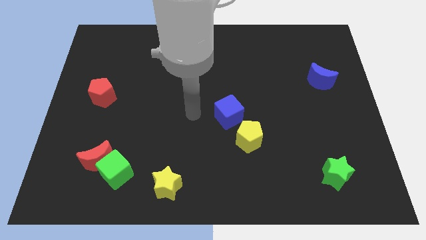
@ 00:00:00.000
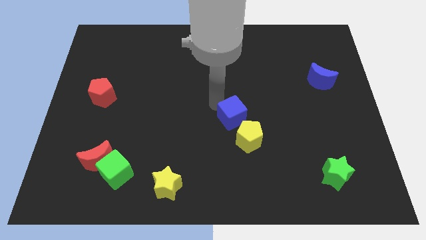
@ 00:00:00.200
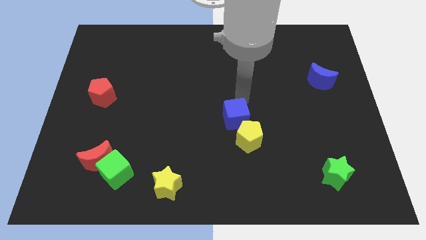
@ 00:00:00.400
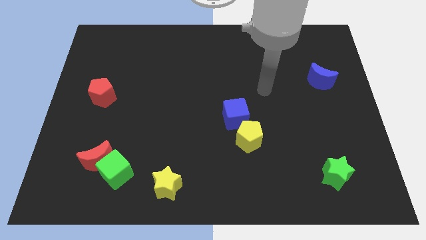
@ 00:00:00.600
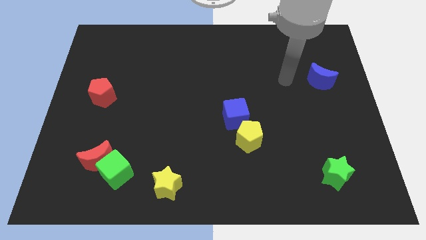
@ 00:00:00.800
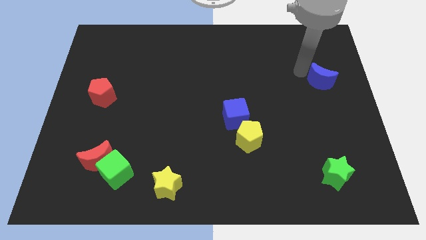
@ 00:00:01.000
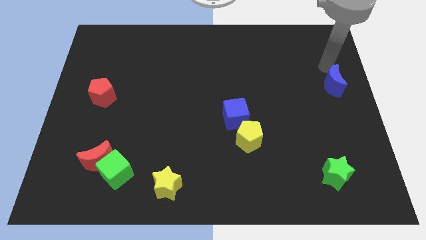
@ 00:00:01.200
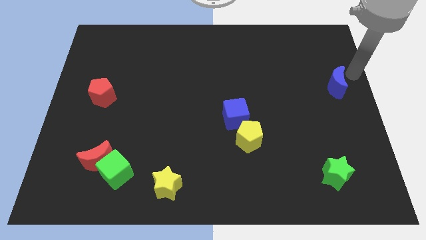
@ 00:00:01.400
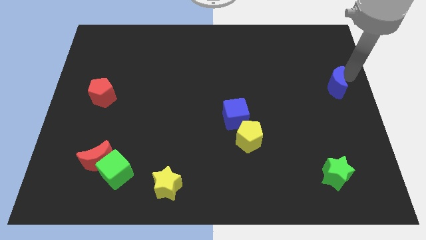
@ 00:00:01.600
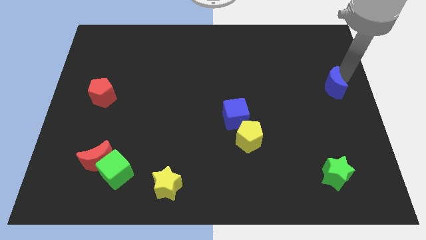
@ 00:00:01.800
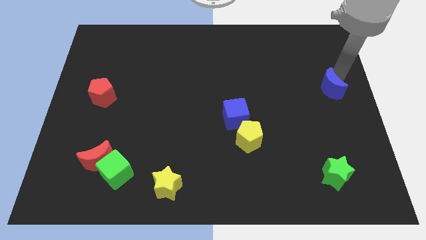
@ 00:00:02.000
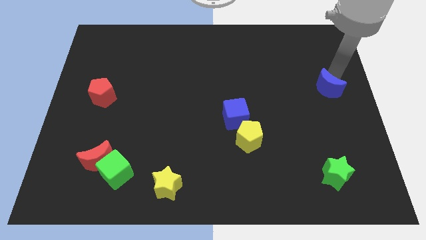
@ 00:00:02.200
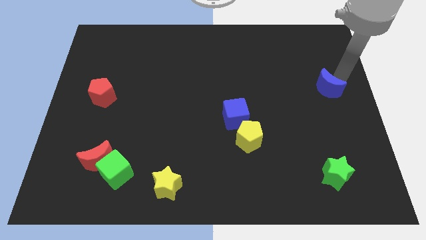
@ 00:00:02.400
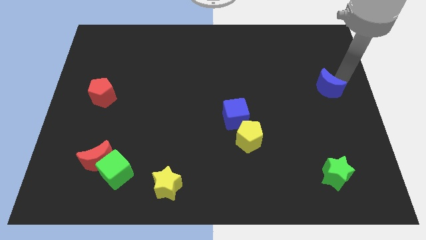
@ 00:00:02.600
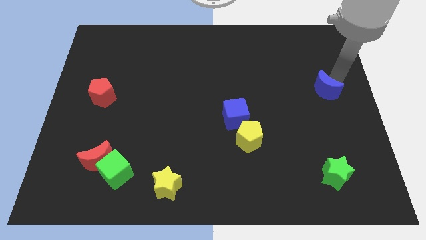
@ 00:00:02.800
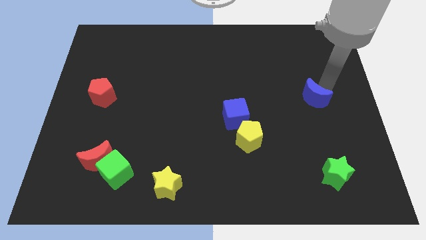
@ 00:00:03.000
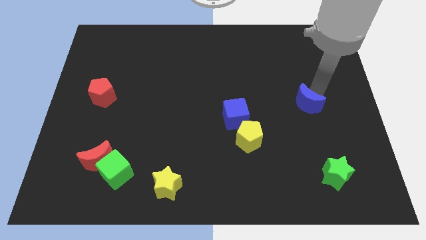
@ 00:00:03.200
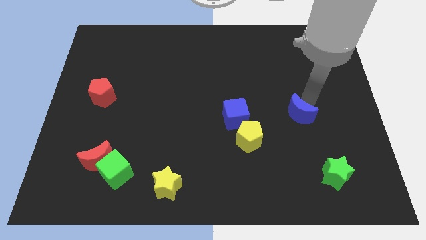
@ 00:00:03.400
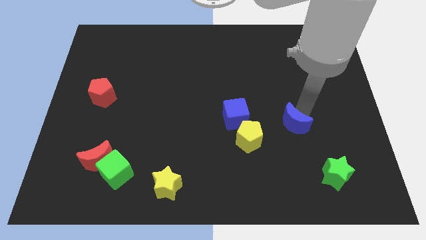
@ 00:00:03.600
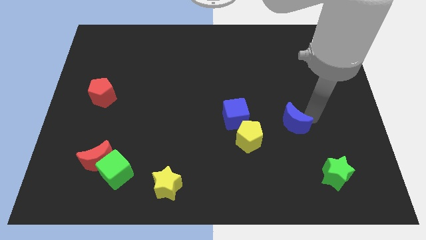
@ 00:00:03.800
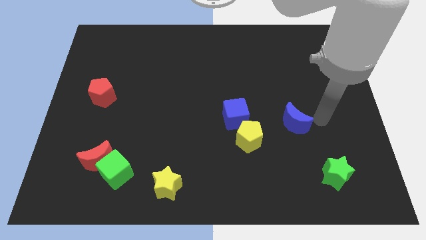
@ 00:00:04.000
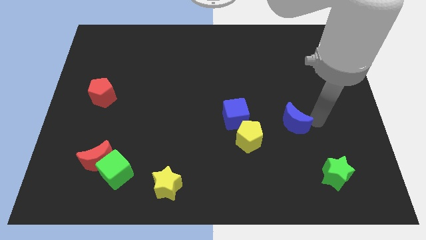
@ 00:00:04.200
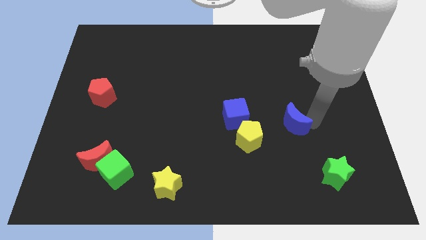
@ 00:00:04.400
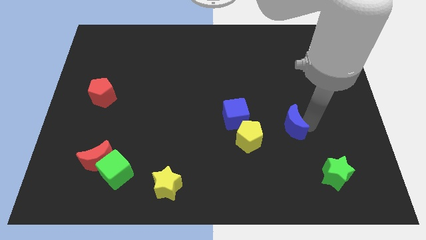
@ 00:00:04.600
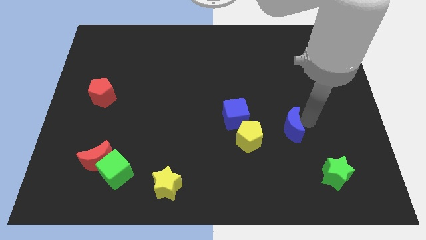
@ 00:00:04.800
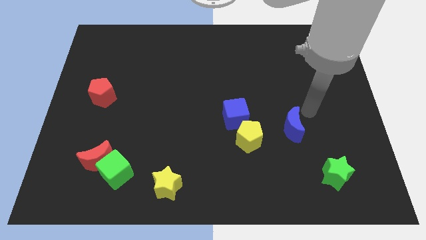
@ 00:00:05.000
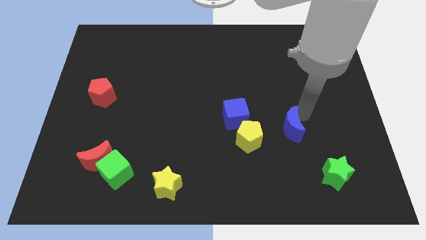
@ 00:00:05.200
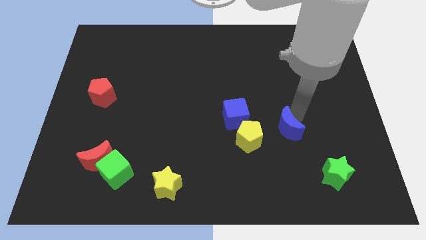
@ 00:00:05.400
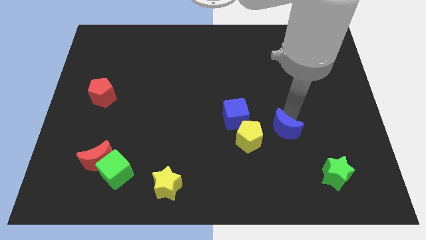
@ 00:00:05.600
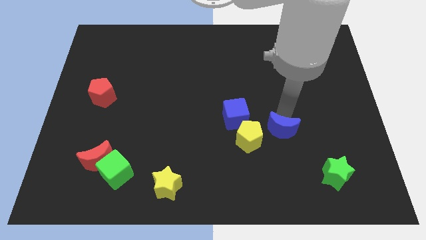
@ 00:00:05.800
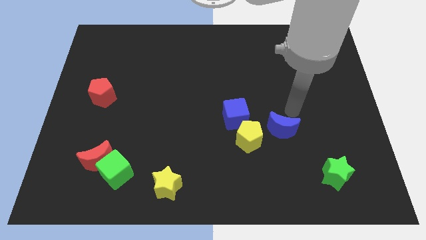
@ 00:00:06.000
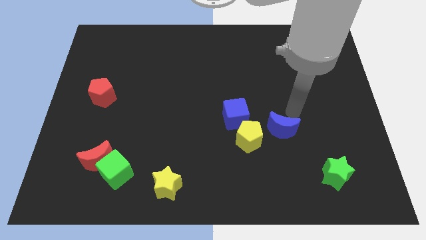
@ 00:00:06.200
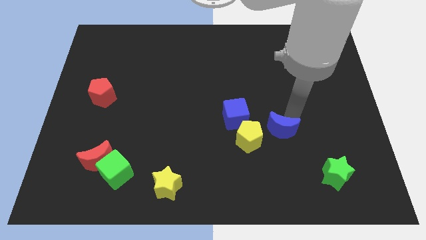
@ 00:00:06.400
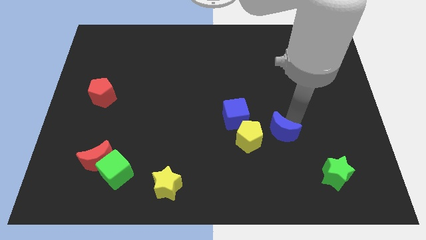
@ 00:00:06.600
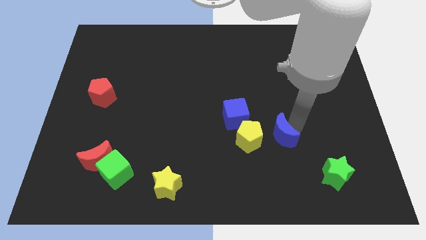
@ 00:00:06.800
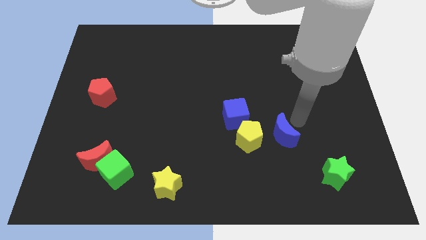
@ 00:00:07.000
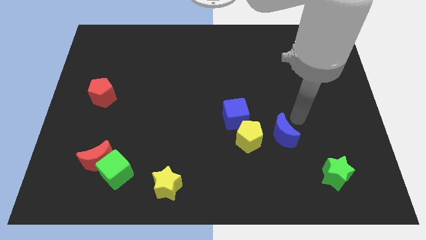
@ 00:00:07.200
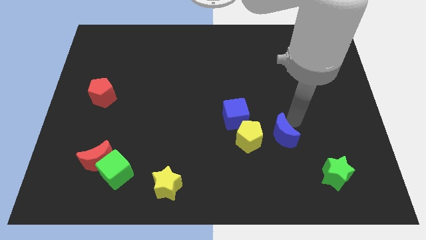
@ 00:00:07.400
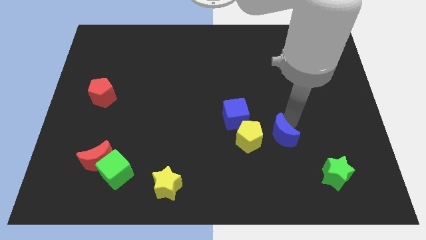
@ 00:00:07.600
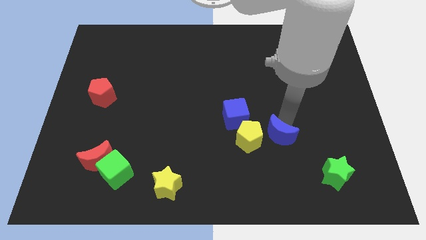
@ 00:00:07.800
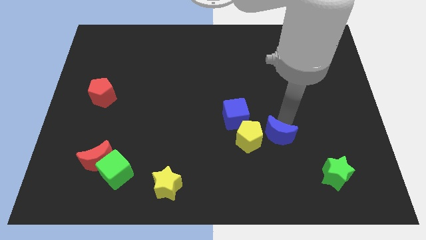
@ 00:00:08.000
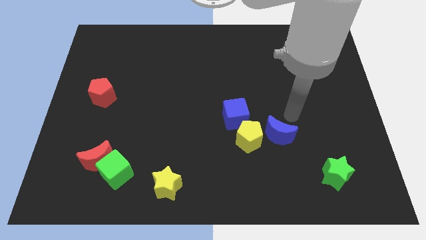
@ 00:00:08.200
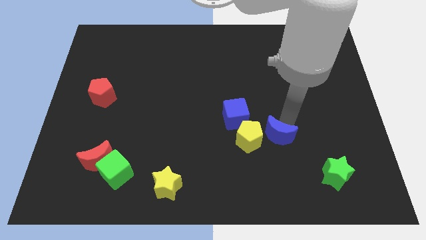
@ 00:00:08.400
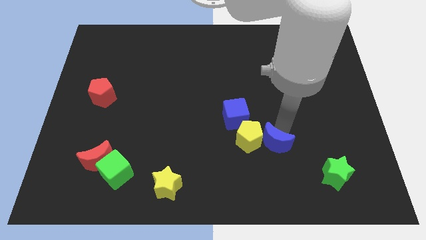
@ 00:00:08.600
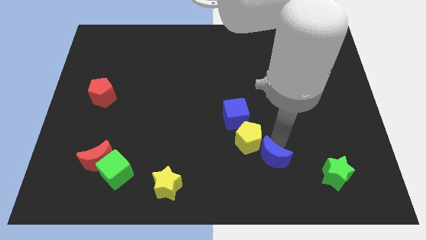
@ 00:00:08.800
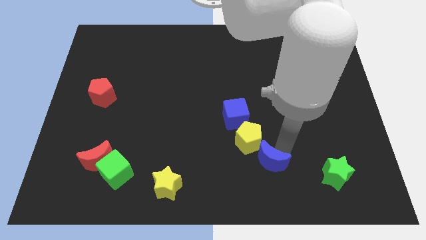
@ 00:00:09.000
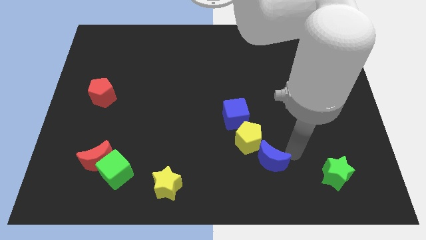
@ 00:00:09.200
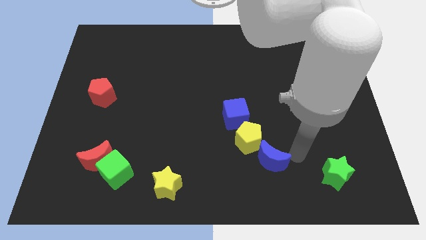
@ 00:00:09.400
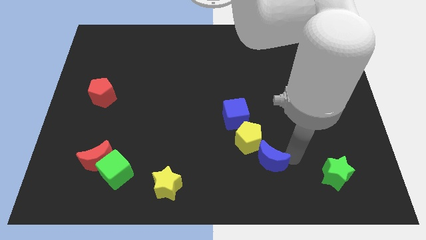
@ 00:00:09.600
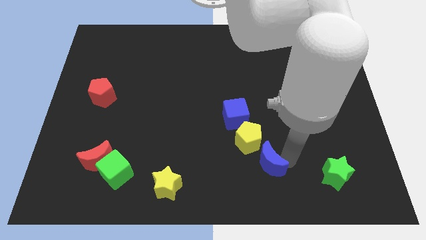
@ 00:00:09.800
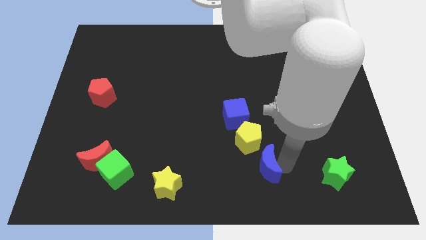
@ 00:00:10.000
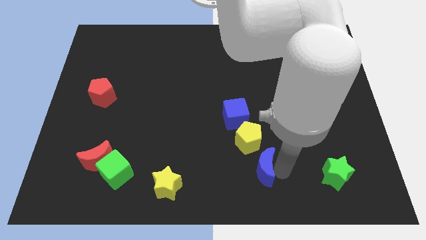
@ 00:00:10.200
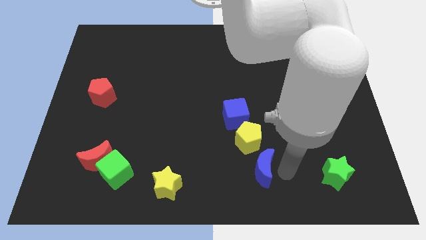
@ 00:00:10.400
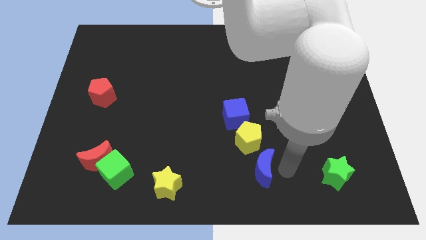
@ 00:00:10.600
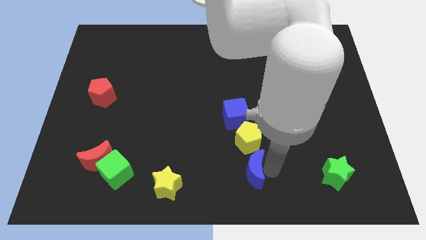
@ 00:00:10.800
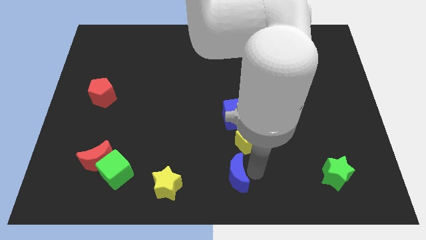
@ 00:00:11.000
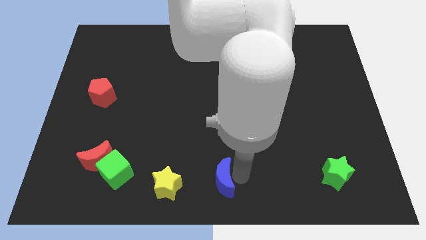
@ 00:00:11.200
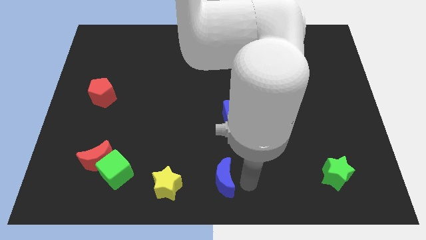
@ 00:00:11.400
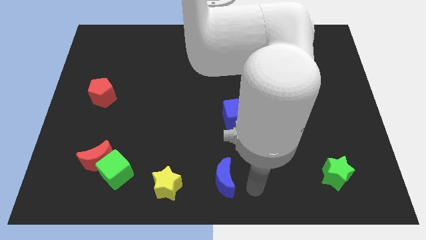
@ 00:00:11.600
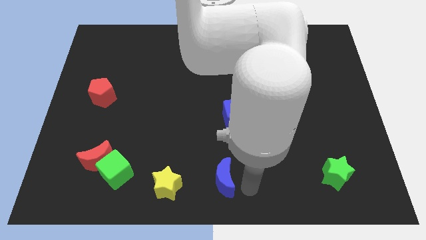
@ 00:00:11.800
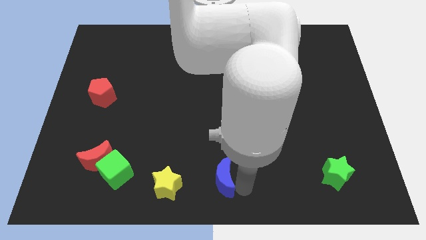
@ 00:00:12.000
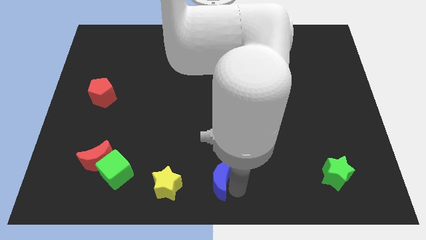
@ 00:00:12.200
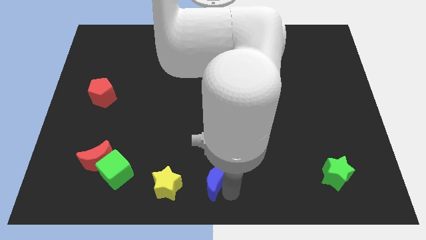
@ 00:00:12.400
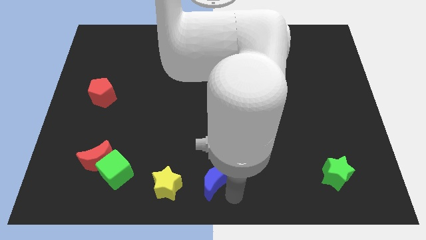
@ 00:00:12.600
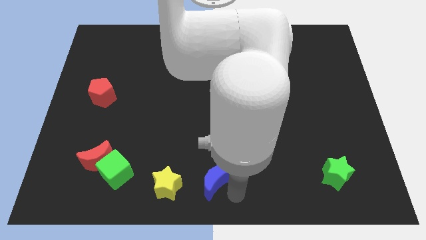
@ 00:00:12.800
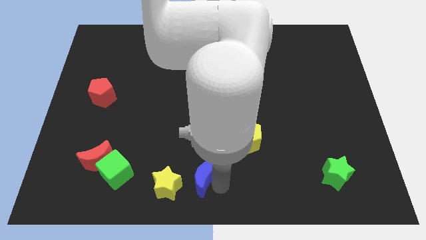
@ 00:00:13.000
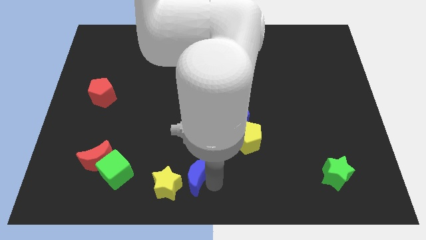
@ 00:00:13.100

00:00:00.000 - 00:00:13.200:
push the blue moon next to the yellow star

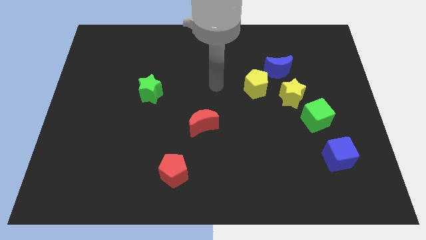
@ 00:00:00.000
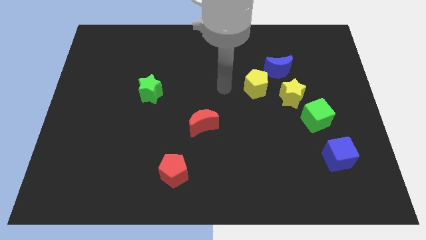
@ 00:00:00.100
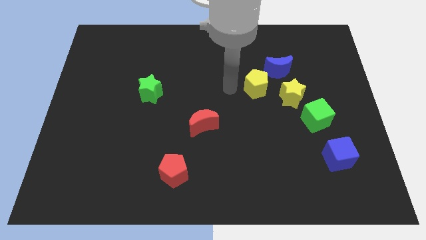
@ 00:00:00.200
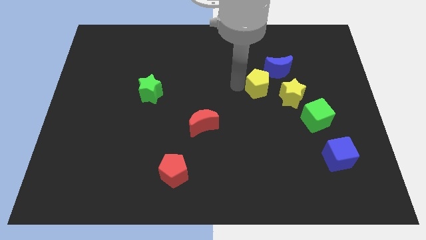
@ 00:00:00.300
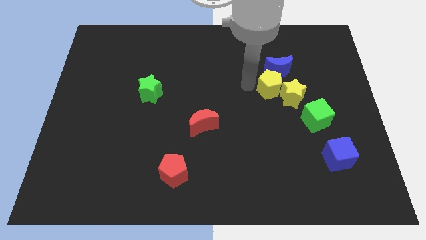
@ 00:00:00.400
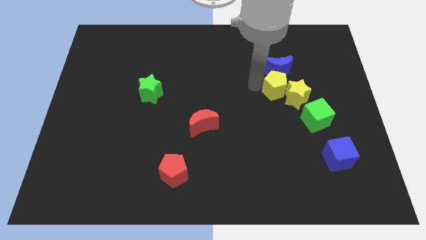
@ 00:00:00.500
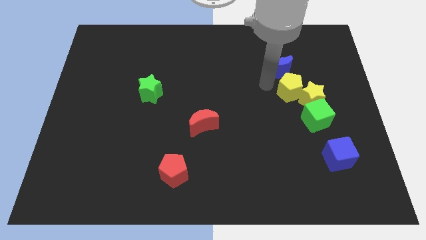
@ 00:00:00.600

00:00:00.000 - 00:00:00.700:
slide the yellow star to the green cube
